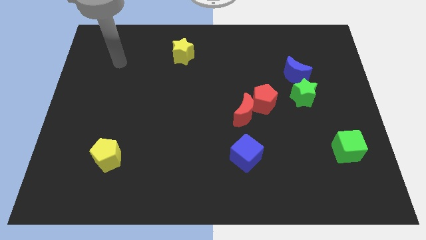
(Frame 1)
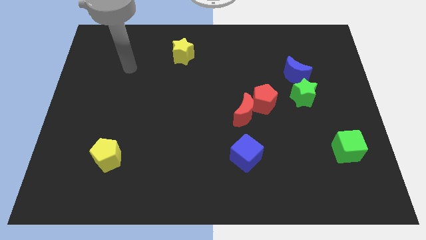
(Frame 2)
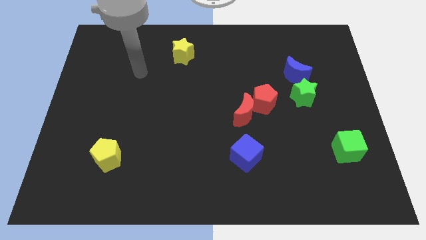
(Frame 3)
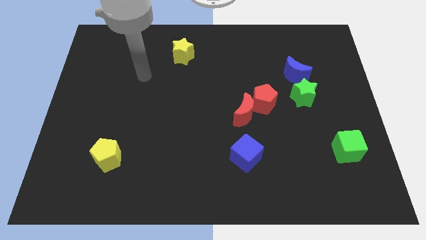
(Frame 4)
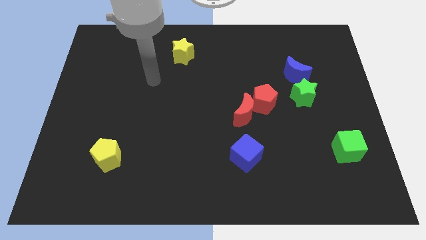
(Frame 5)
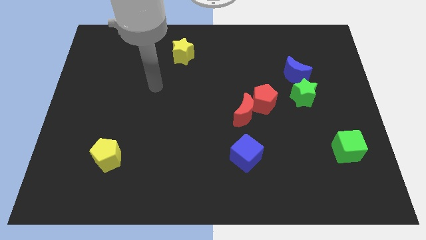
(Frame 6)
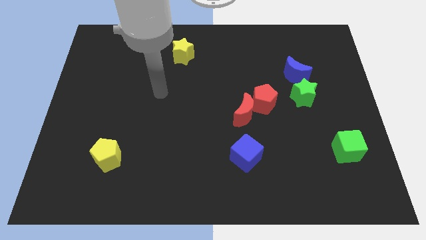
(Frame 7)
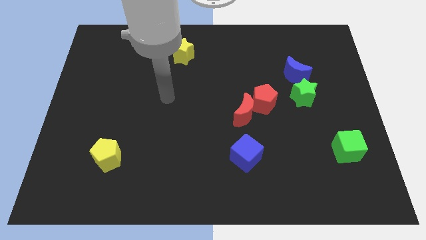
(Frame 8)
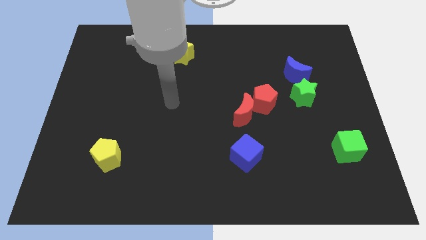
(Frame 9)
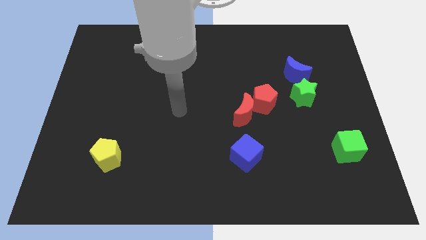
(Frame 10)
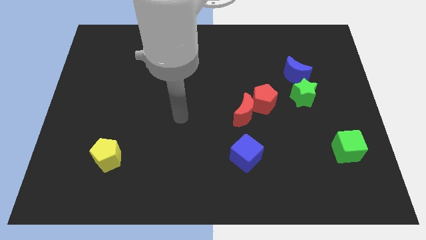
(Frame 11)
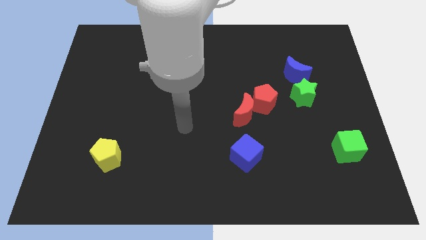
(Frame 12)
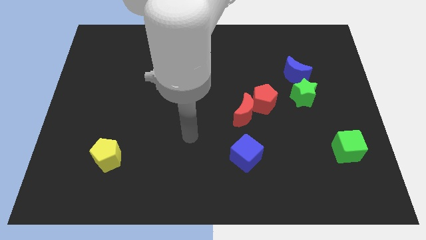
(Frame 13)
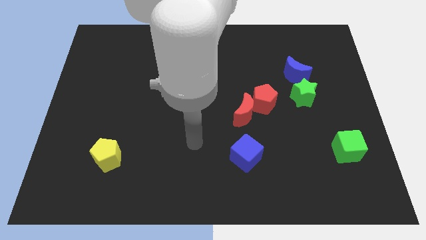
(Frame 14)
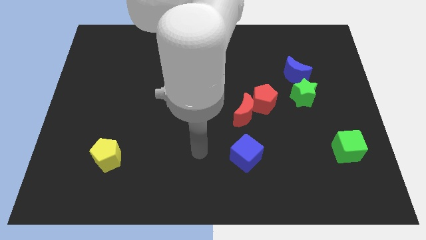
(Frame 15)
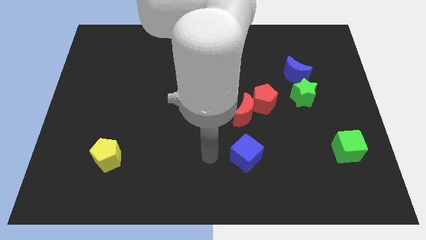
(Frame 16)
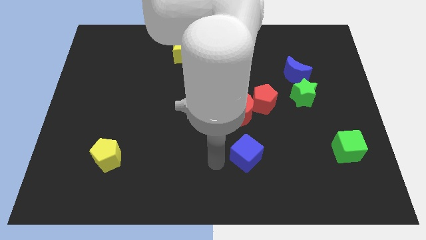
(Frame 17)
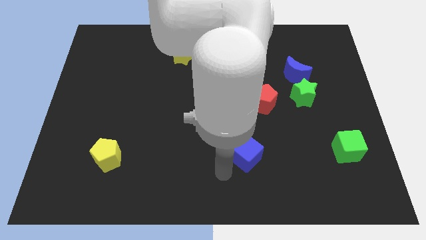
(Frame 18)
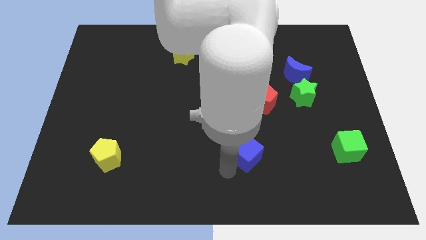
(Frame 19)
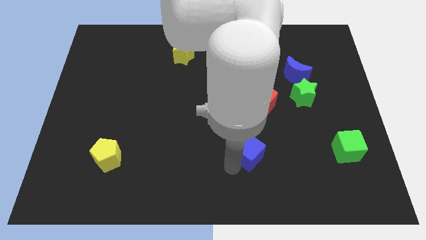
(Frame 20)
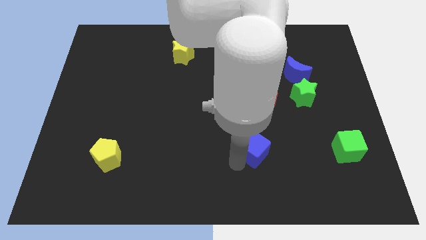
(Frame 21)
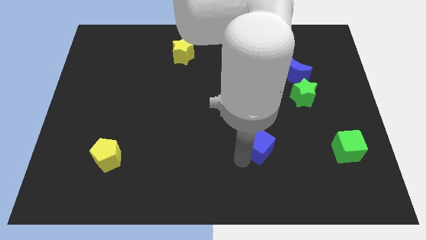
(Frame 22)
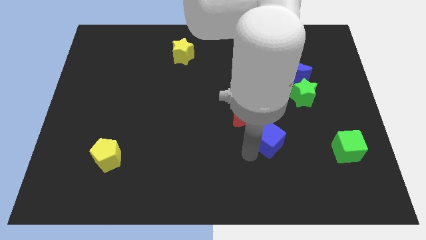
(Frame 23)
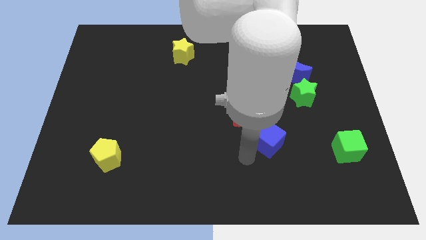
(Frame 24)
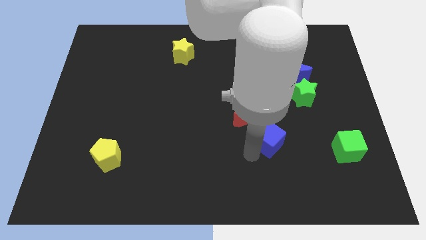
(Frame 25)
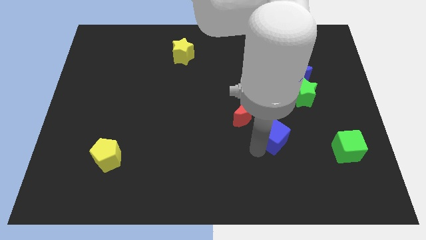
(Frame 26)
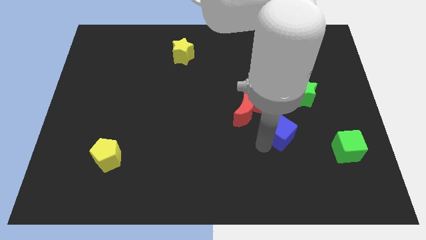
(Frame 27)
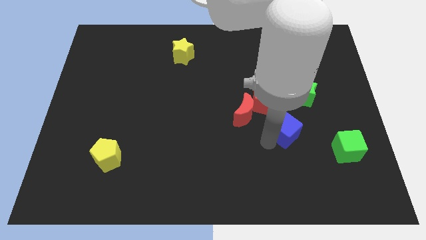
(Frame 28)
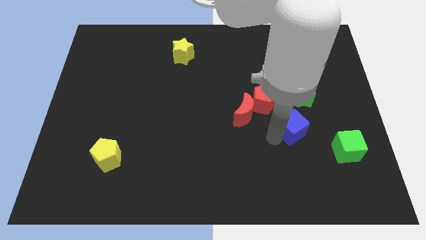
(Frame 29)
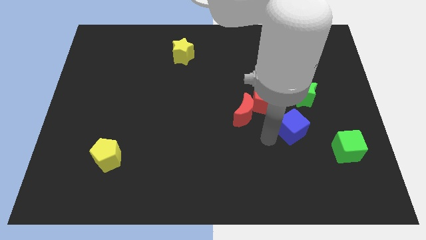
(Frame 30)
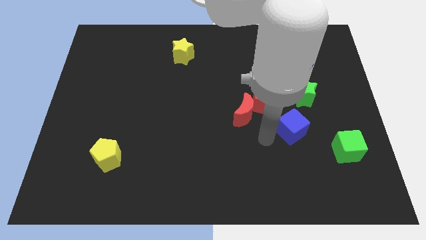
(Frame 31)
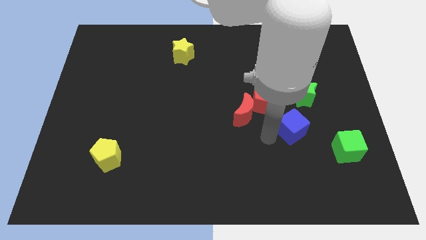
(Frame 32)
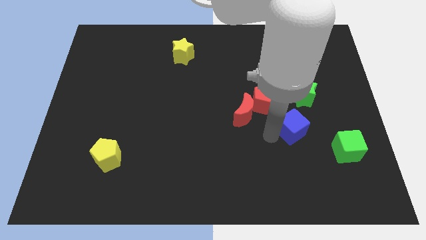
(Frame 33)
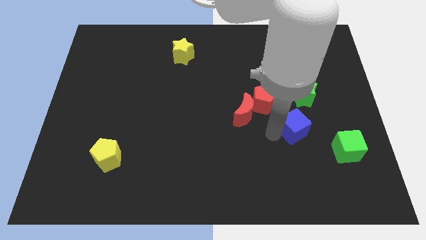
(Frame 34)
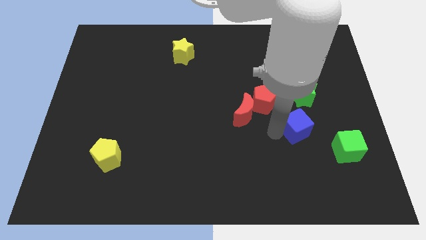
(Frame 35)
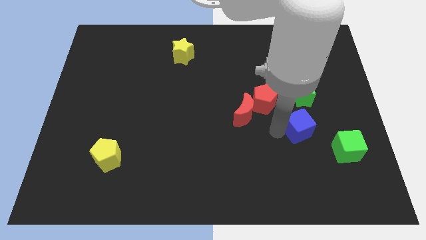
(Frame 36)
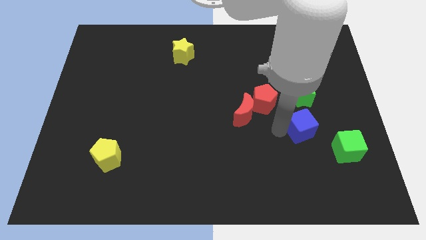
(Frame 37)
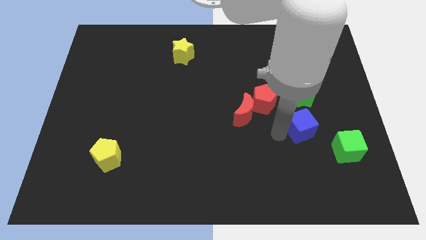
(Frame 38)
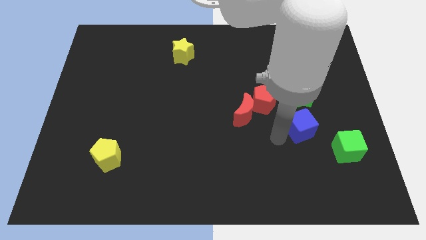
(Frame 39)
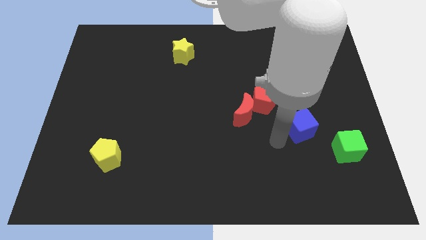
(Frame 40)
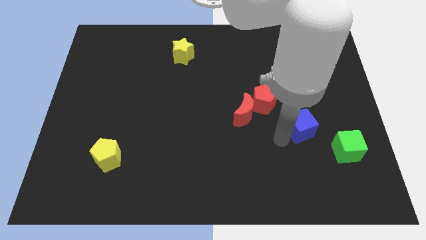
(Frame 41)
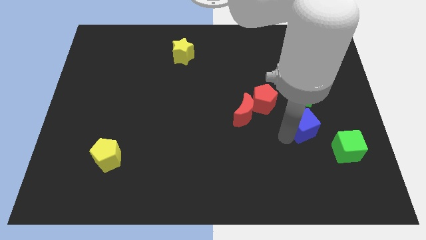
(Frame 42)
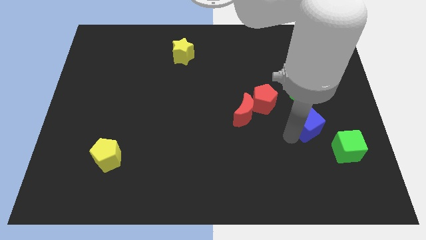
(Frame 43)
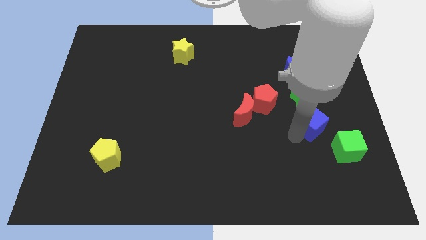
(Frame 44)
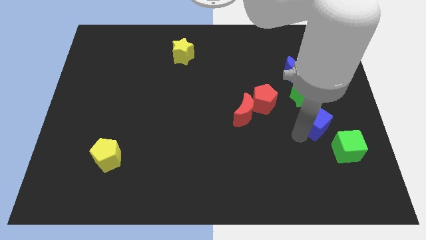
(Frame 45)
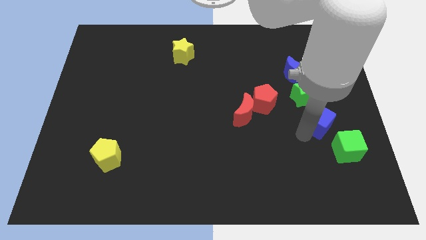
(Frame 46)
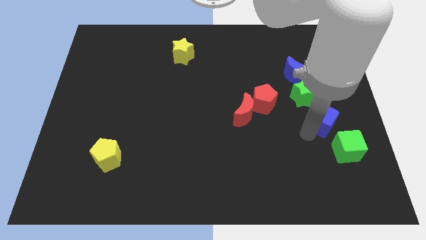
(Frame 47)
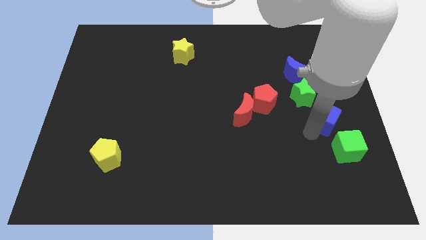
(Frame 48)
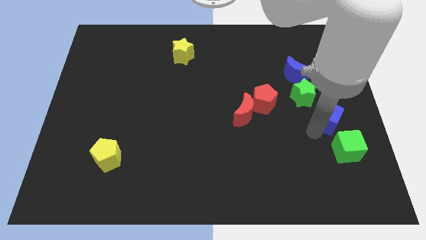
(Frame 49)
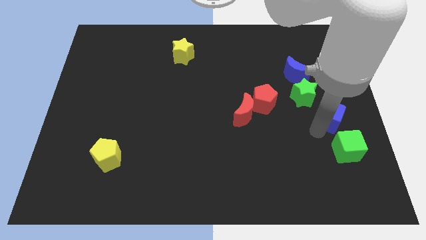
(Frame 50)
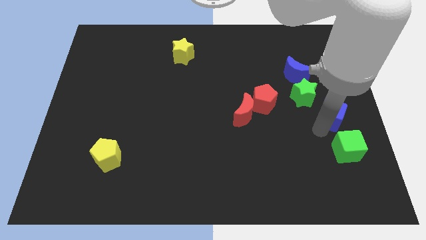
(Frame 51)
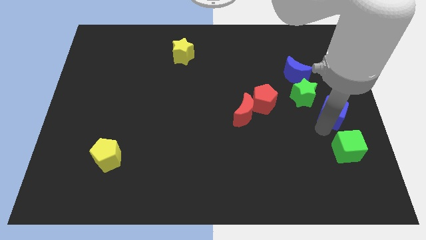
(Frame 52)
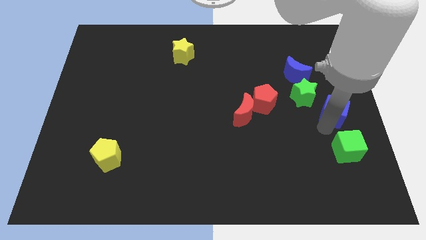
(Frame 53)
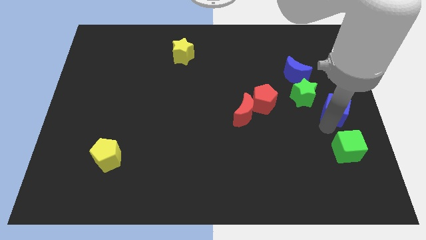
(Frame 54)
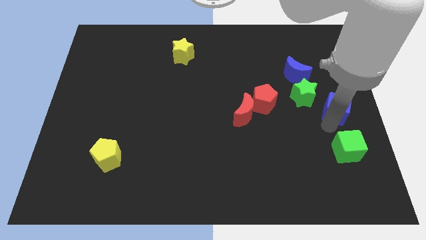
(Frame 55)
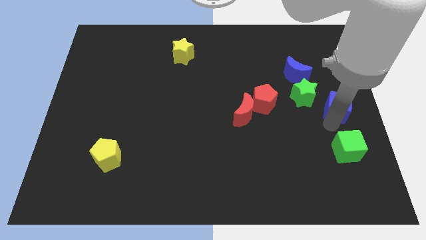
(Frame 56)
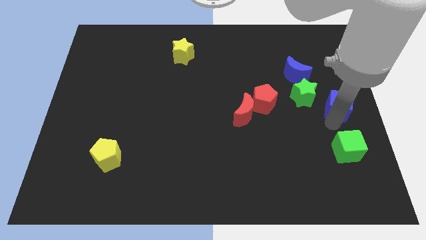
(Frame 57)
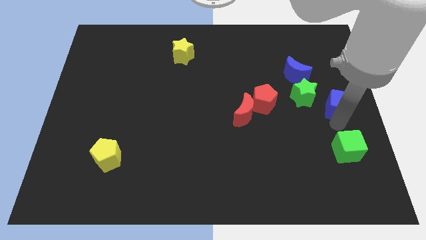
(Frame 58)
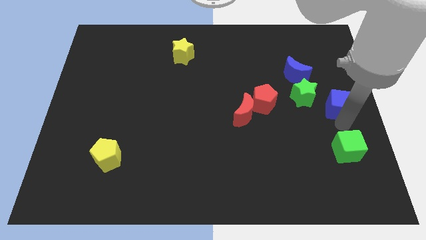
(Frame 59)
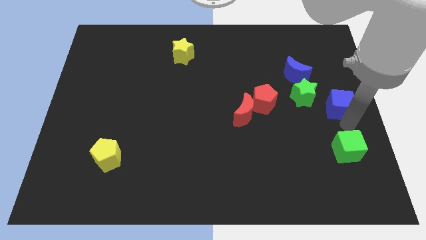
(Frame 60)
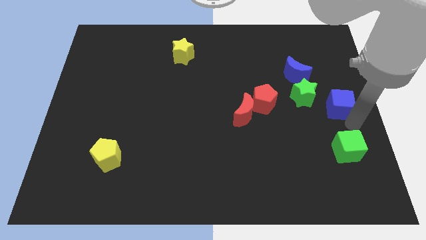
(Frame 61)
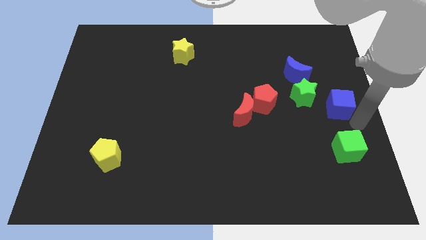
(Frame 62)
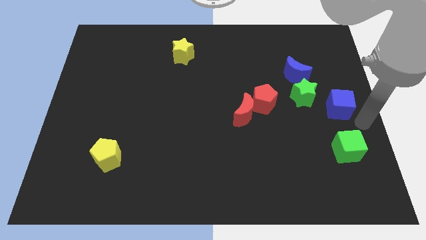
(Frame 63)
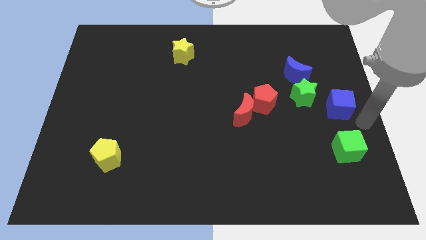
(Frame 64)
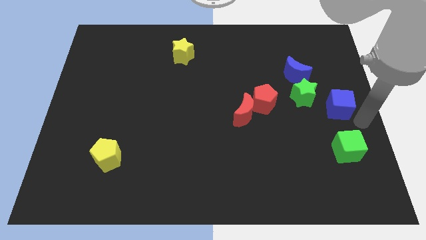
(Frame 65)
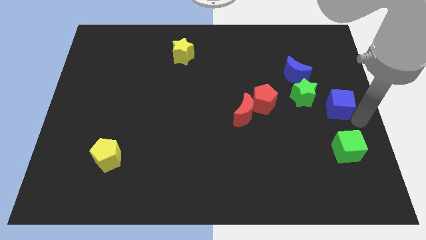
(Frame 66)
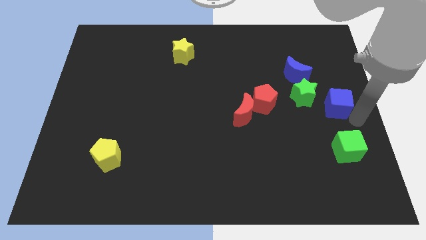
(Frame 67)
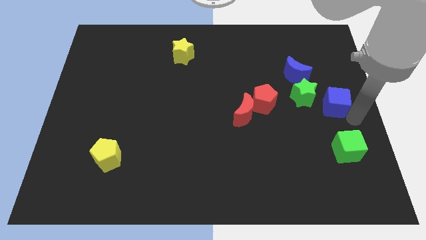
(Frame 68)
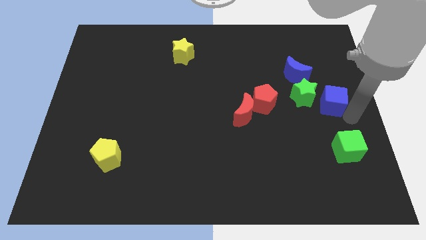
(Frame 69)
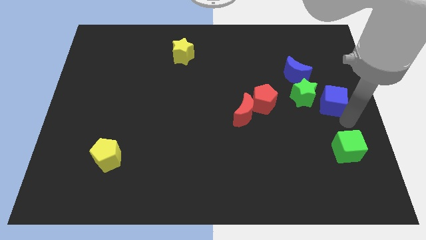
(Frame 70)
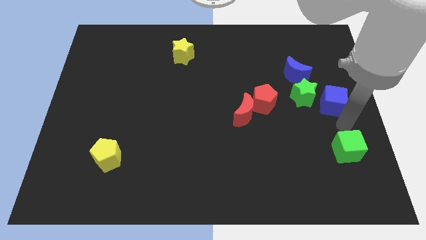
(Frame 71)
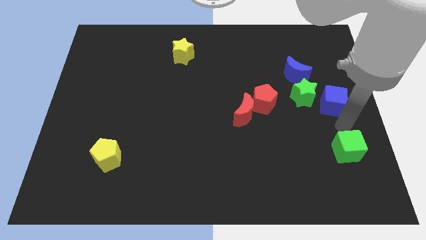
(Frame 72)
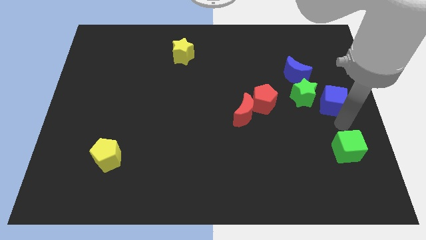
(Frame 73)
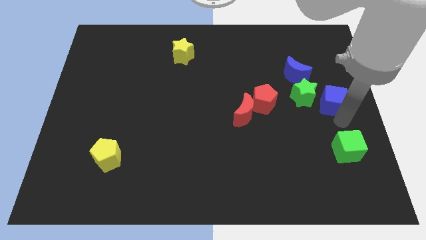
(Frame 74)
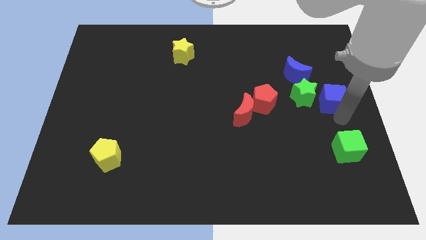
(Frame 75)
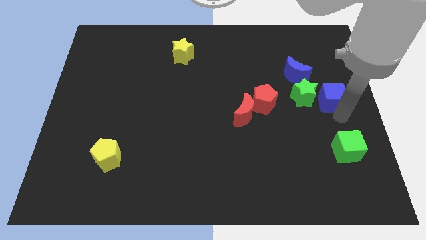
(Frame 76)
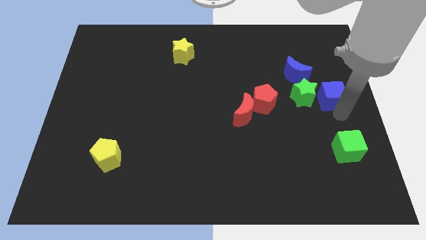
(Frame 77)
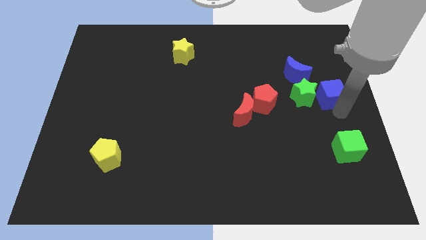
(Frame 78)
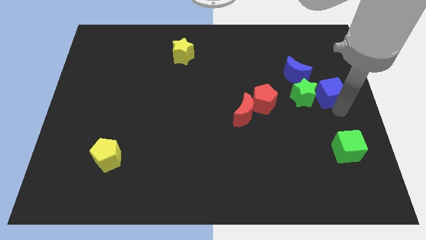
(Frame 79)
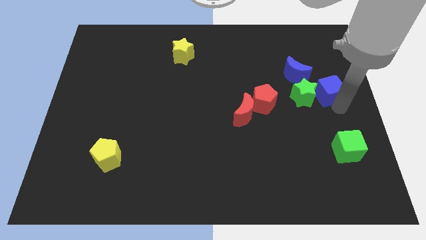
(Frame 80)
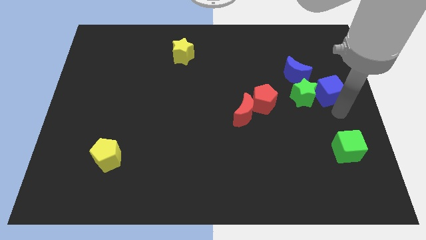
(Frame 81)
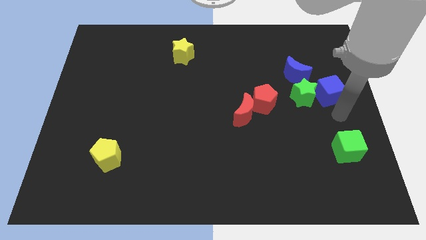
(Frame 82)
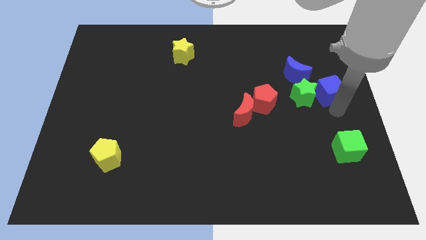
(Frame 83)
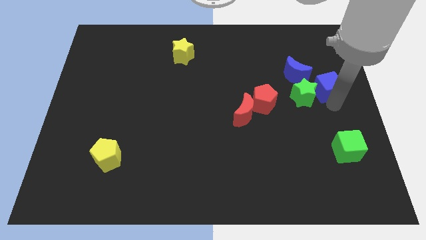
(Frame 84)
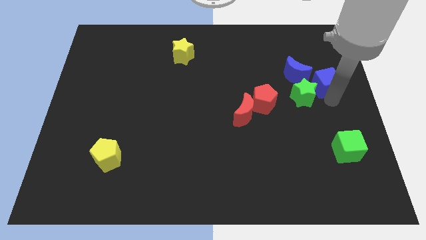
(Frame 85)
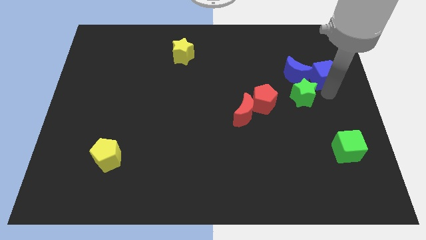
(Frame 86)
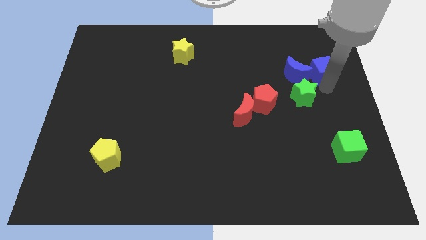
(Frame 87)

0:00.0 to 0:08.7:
move the blue cube to the top right side of the blue moon
